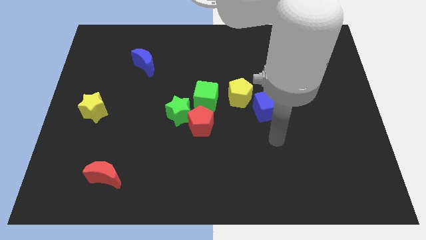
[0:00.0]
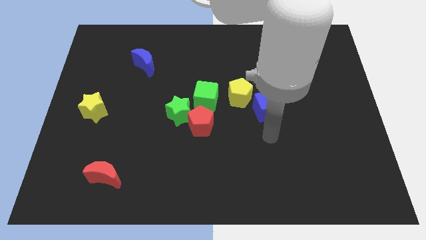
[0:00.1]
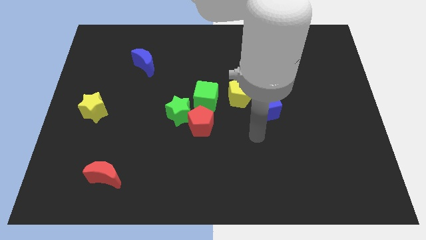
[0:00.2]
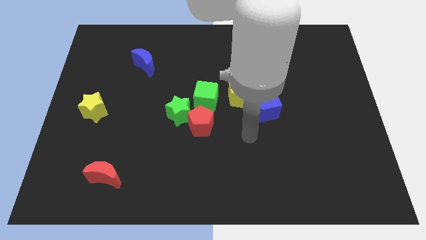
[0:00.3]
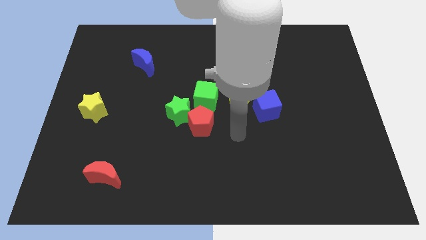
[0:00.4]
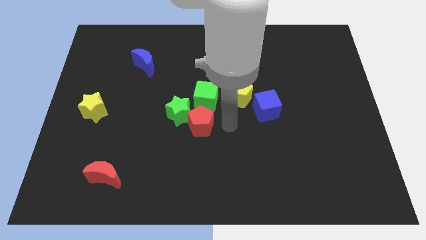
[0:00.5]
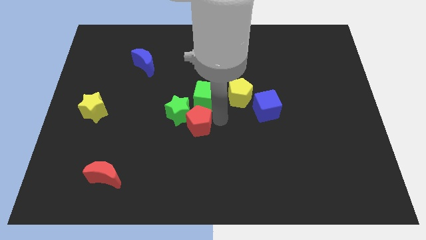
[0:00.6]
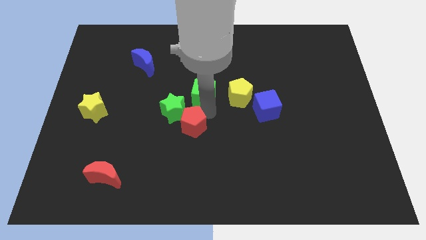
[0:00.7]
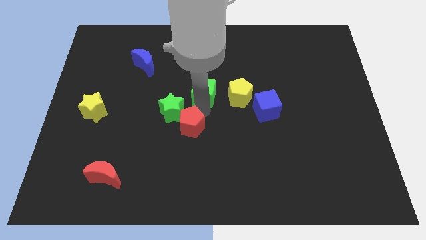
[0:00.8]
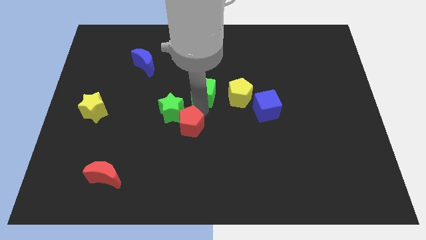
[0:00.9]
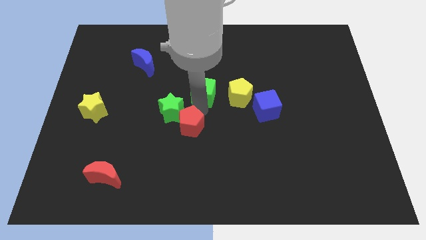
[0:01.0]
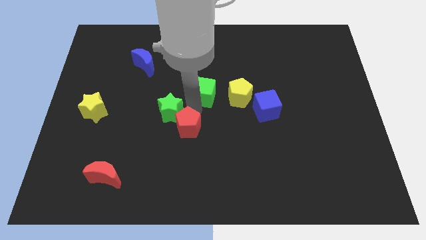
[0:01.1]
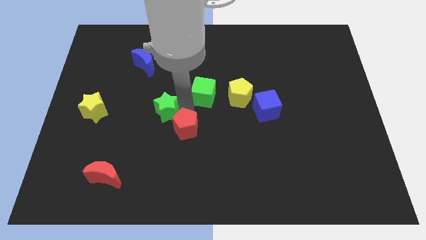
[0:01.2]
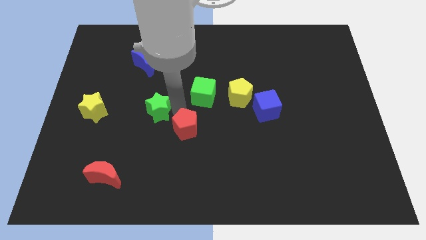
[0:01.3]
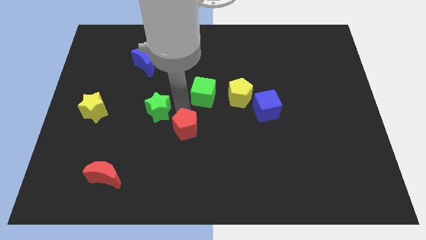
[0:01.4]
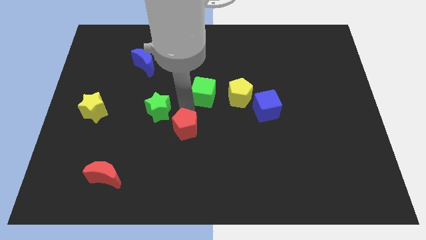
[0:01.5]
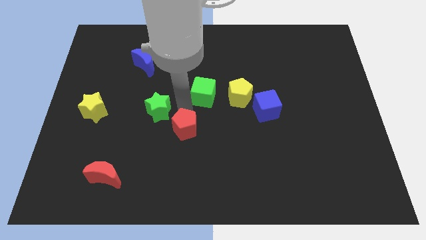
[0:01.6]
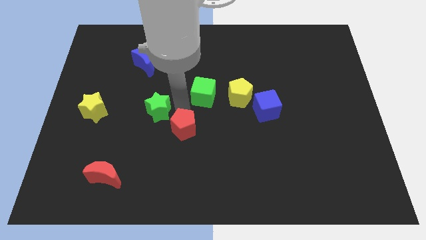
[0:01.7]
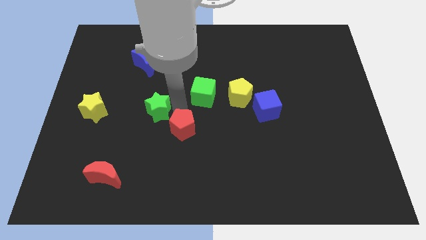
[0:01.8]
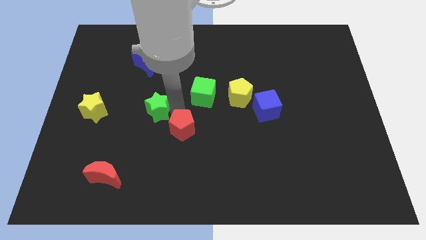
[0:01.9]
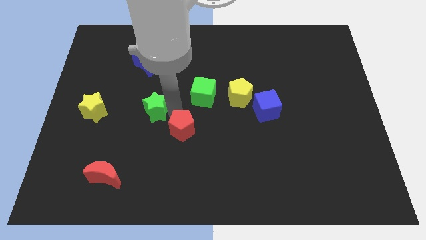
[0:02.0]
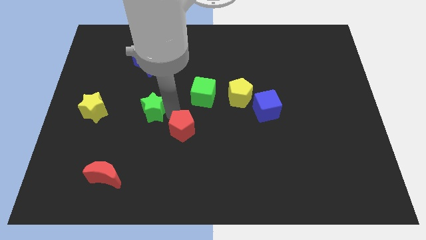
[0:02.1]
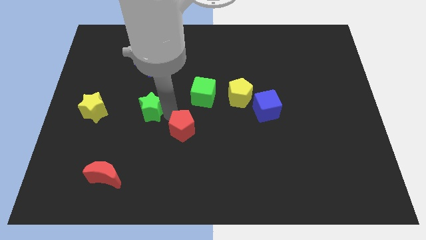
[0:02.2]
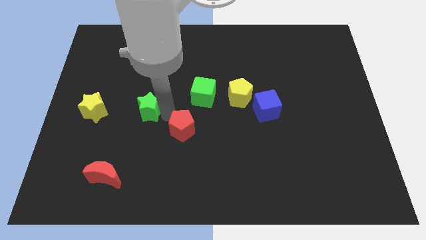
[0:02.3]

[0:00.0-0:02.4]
pull the green star apart from the red pentagon and green cube

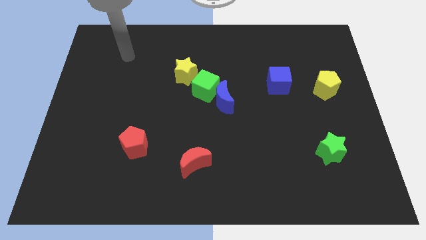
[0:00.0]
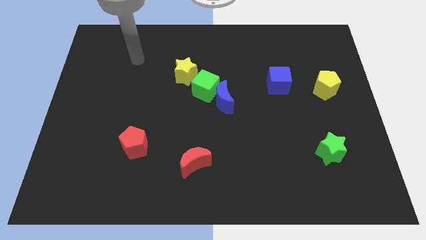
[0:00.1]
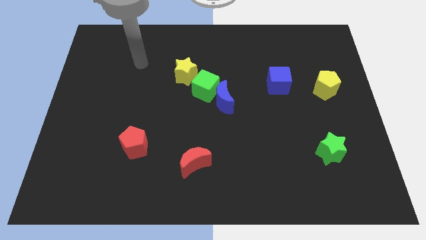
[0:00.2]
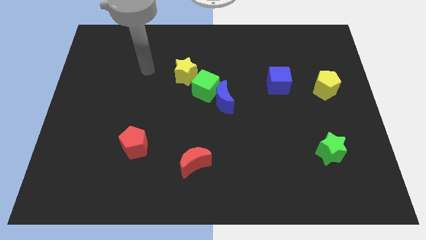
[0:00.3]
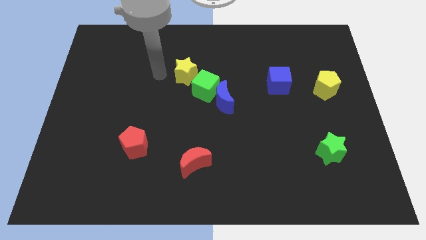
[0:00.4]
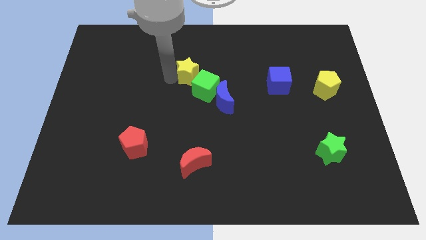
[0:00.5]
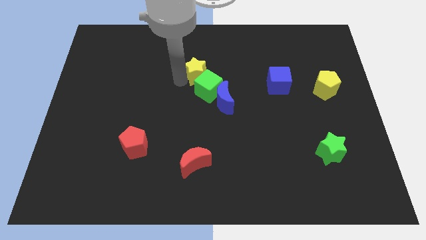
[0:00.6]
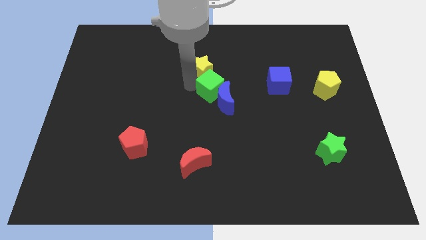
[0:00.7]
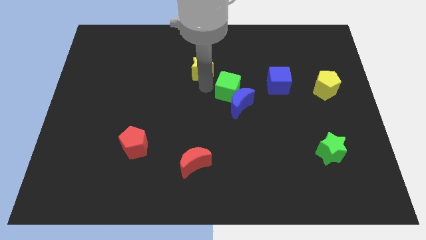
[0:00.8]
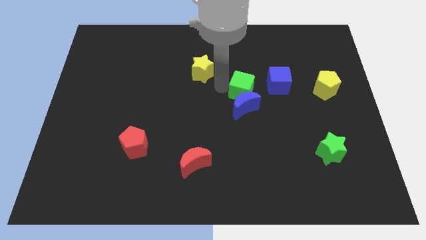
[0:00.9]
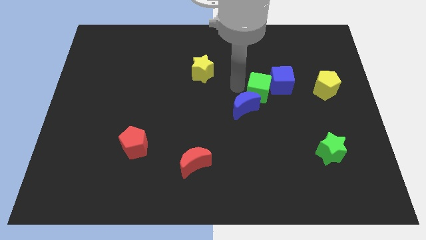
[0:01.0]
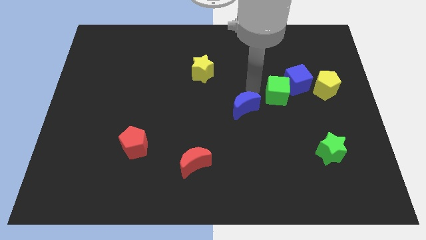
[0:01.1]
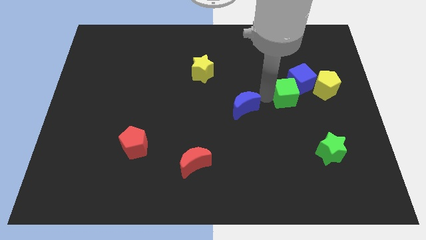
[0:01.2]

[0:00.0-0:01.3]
pull the blue moon apart from the green cube

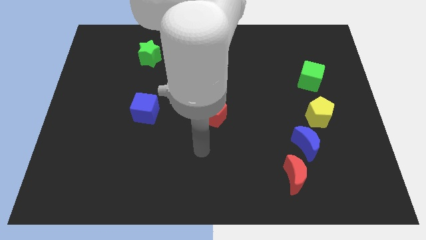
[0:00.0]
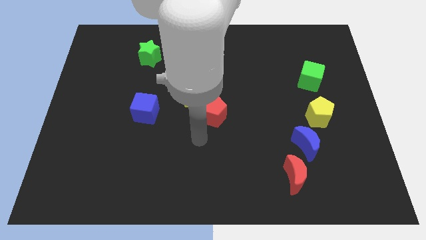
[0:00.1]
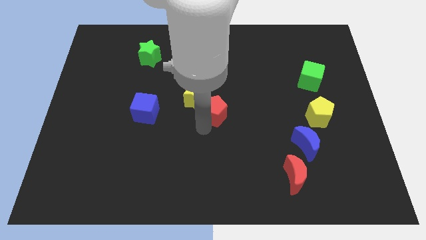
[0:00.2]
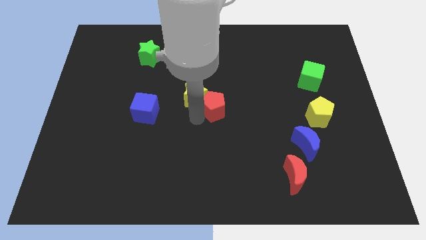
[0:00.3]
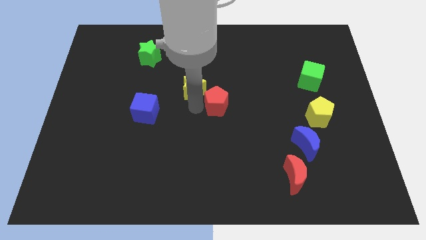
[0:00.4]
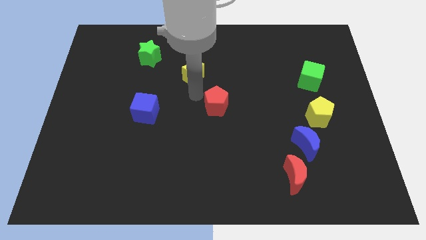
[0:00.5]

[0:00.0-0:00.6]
separate the red pentagon from the yellow star

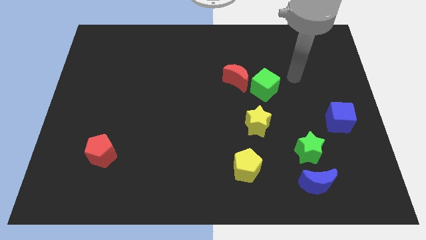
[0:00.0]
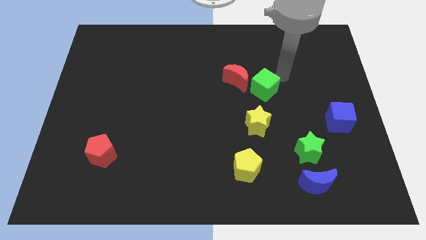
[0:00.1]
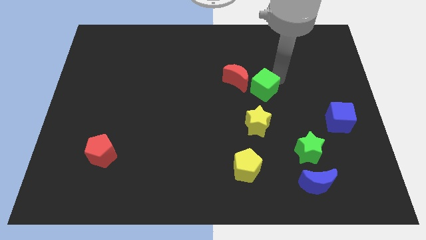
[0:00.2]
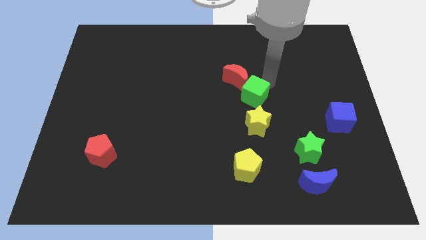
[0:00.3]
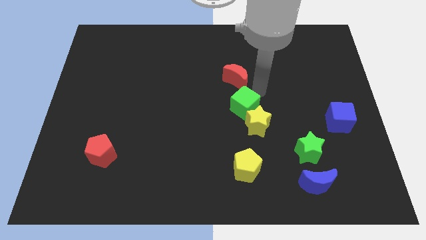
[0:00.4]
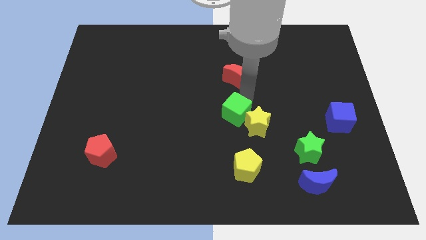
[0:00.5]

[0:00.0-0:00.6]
separate the red moon from the green cube

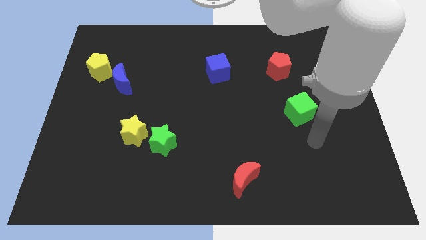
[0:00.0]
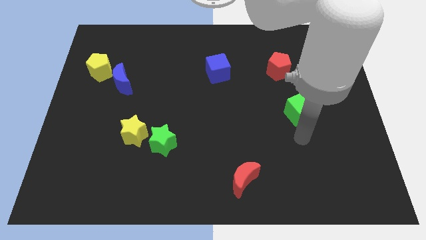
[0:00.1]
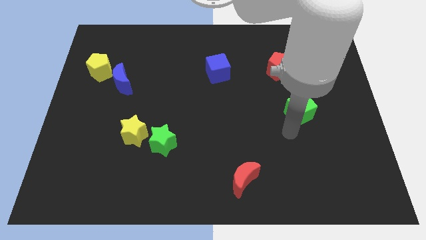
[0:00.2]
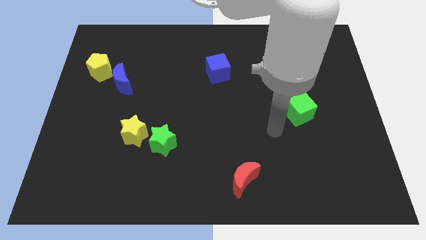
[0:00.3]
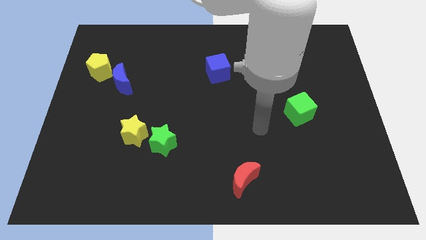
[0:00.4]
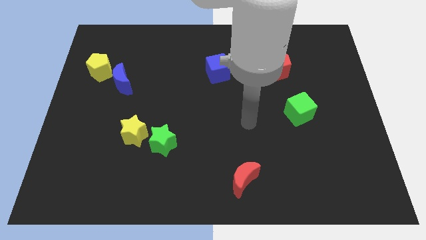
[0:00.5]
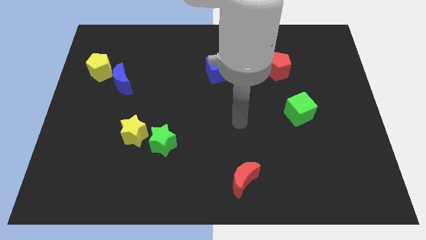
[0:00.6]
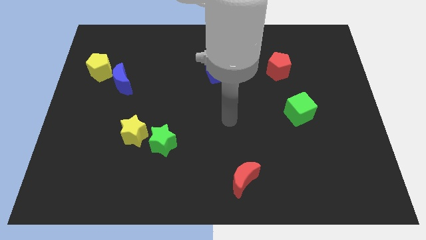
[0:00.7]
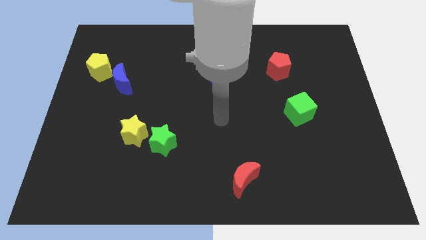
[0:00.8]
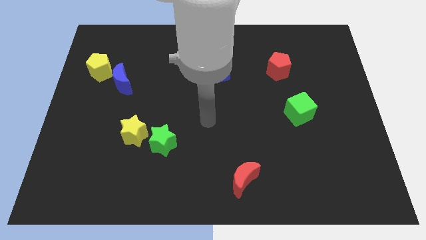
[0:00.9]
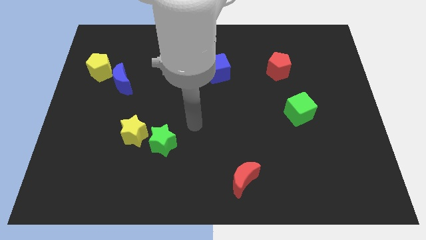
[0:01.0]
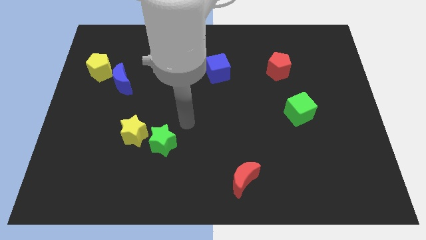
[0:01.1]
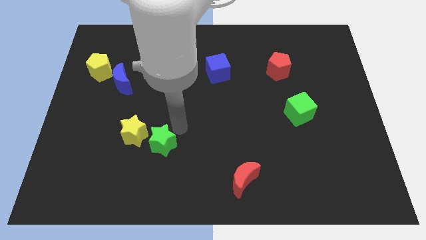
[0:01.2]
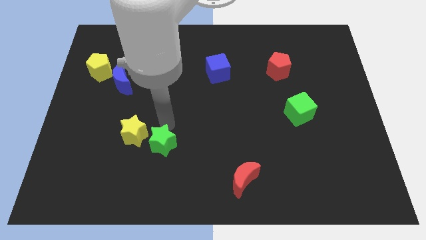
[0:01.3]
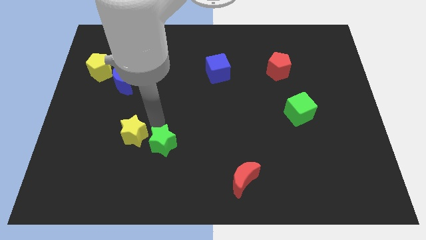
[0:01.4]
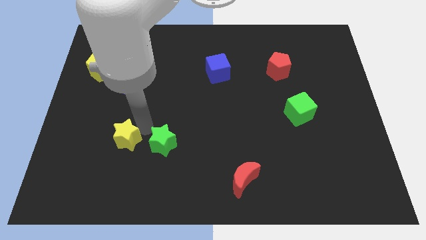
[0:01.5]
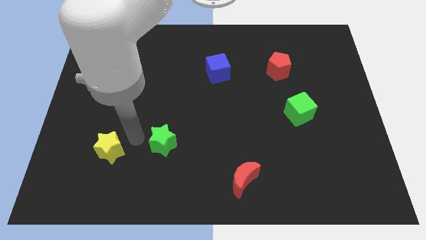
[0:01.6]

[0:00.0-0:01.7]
move the green star away from the yellow star

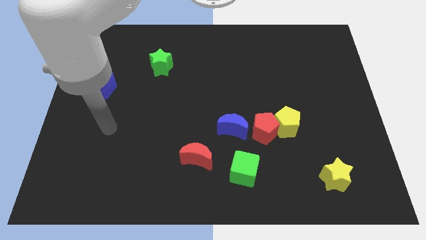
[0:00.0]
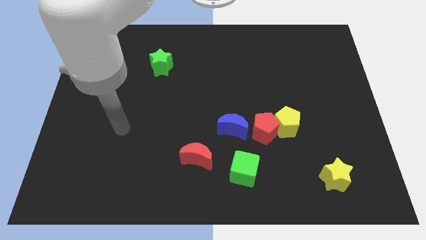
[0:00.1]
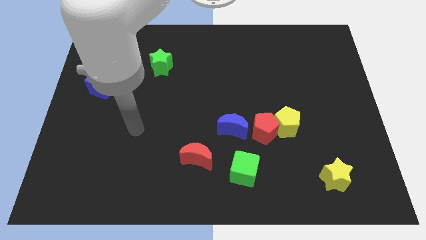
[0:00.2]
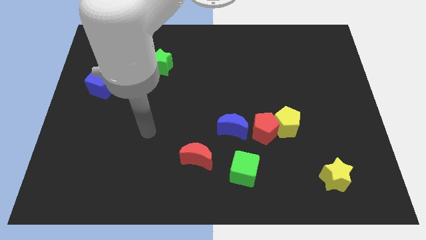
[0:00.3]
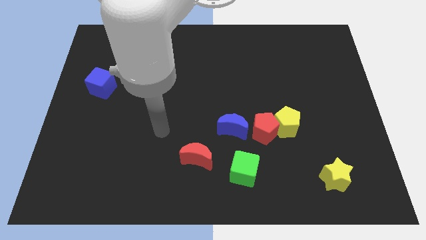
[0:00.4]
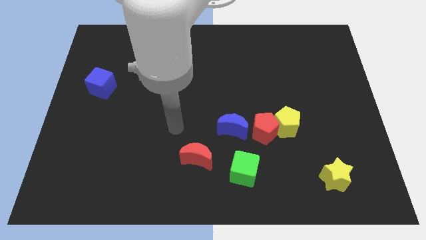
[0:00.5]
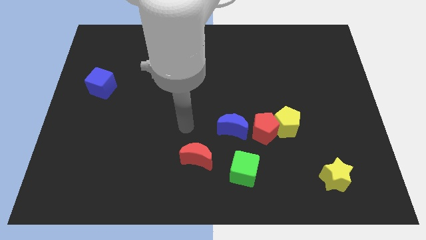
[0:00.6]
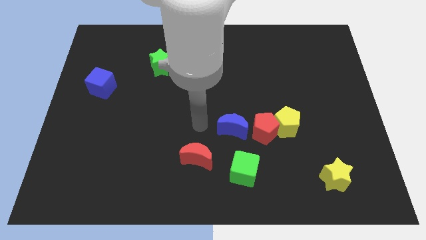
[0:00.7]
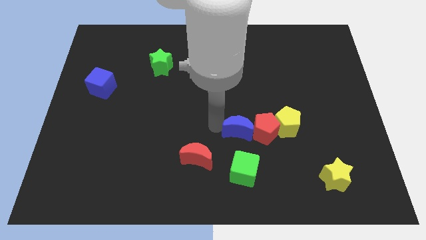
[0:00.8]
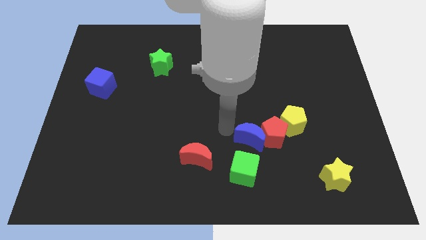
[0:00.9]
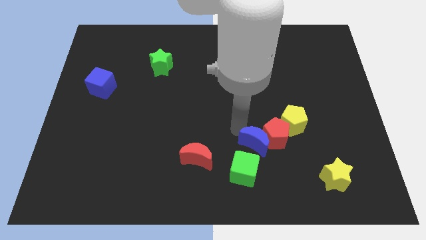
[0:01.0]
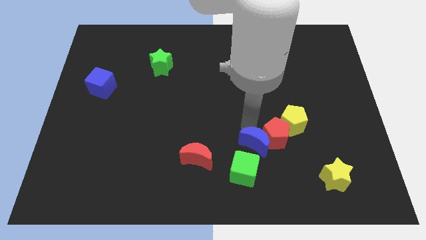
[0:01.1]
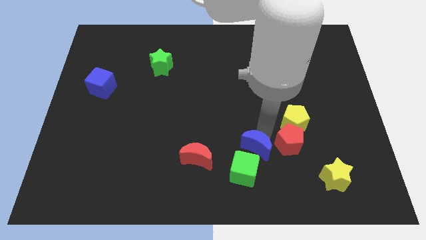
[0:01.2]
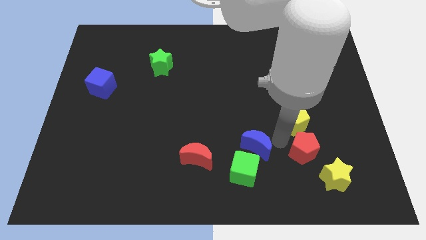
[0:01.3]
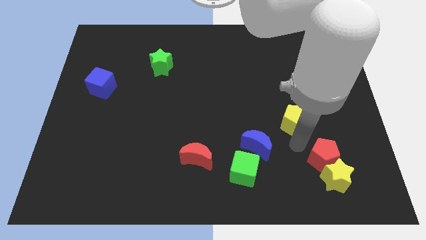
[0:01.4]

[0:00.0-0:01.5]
separate the yellow pentagon from the red pentagon

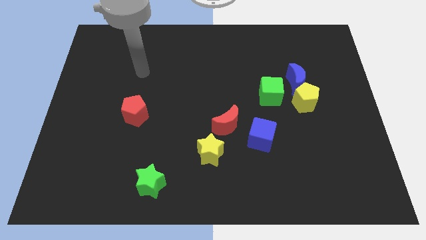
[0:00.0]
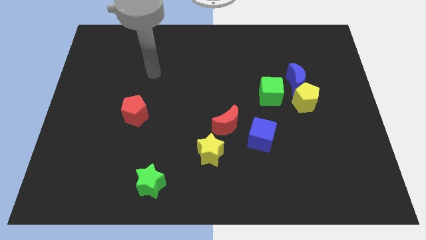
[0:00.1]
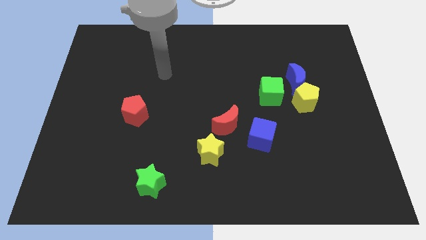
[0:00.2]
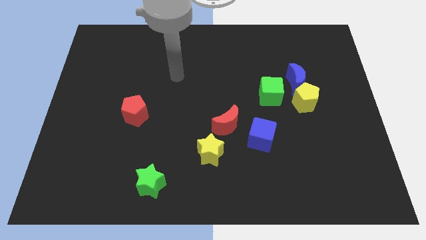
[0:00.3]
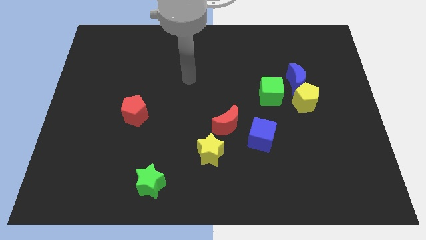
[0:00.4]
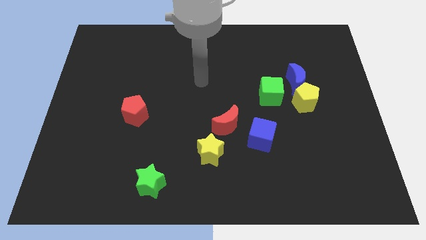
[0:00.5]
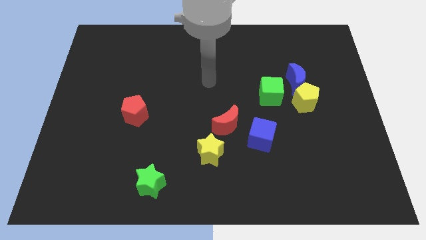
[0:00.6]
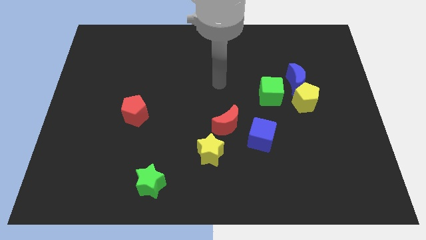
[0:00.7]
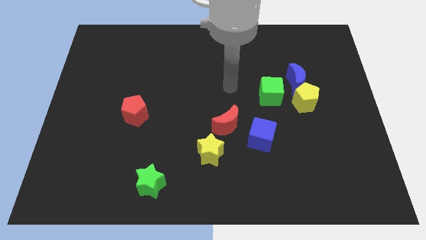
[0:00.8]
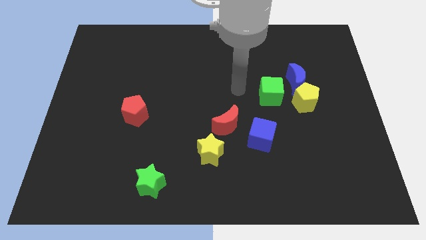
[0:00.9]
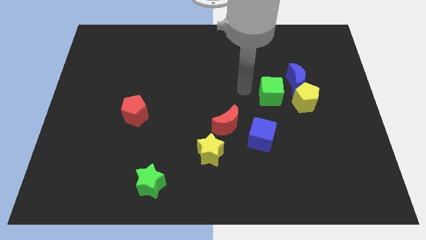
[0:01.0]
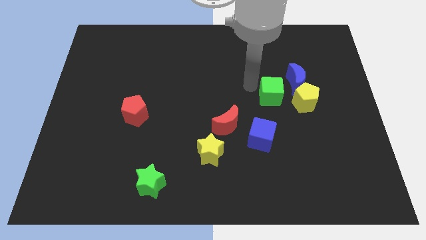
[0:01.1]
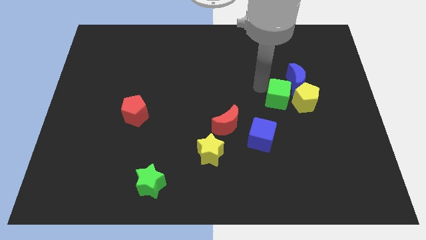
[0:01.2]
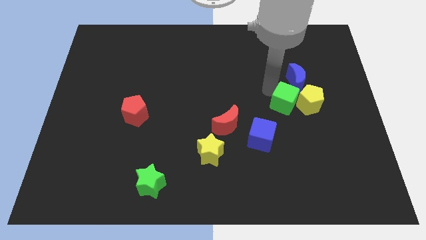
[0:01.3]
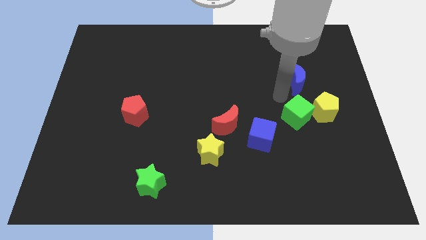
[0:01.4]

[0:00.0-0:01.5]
move the blue moon away from the yellow pentagon and green cube
